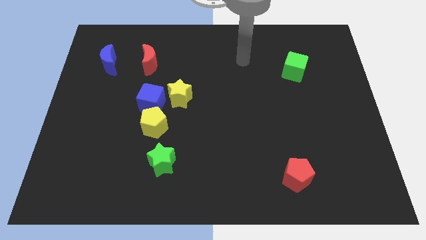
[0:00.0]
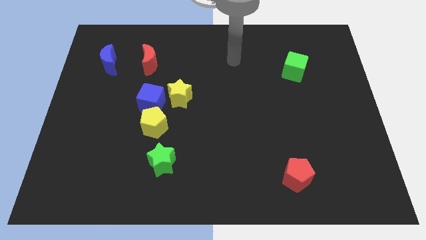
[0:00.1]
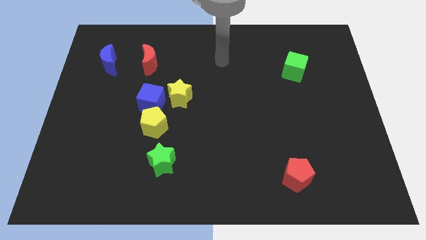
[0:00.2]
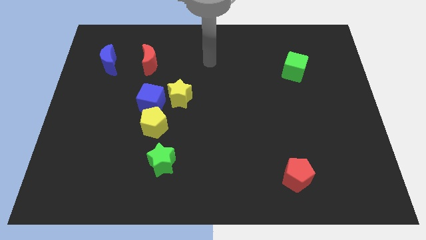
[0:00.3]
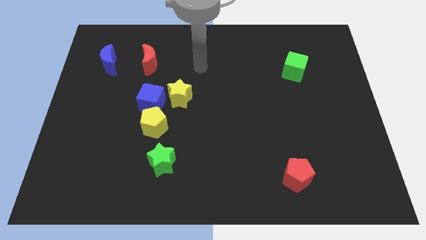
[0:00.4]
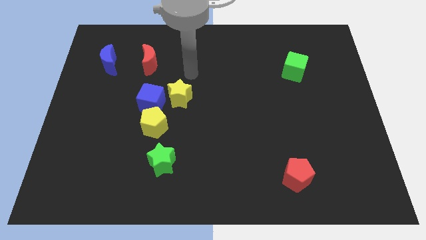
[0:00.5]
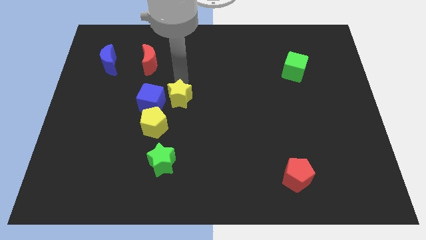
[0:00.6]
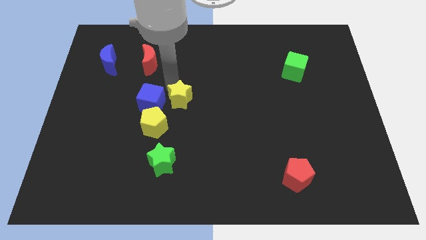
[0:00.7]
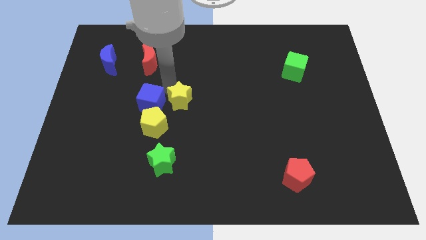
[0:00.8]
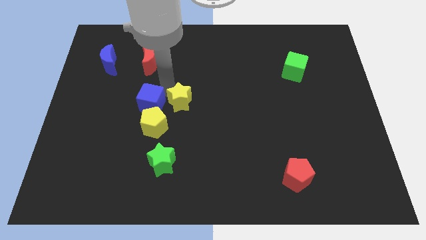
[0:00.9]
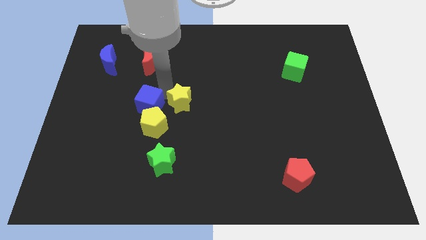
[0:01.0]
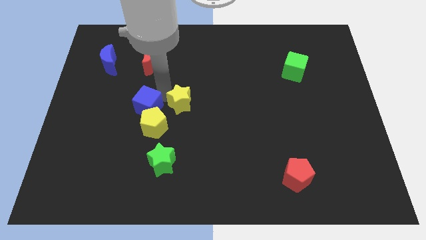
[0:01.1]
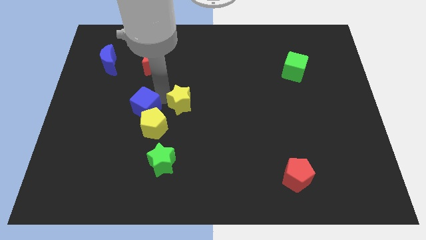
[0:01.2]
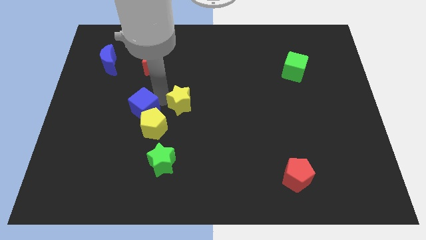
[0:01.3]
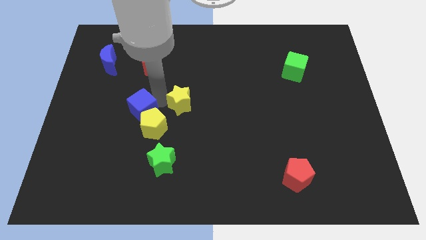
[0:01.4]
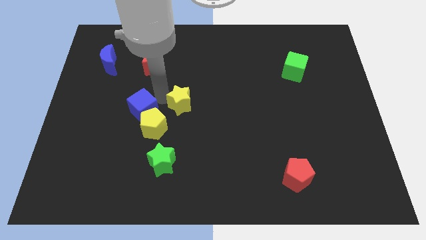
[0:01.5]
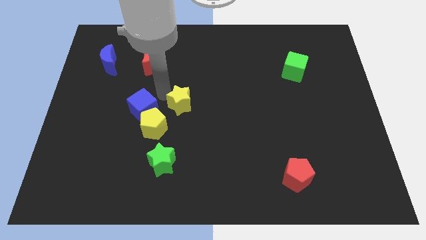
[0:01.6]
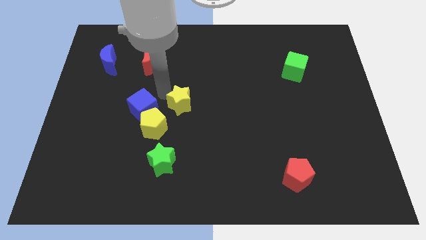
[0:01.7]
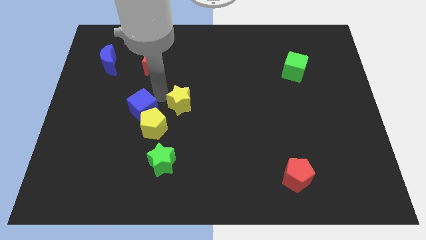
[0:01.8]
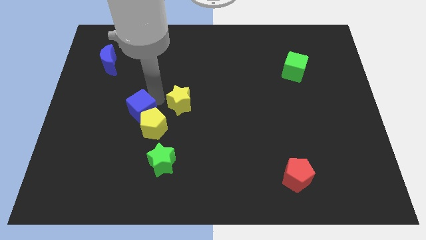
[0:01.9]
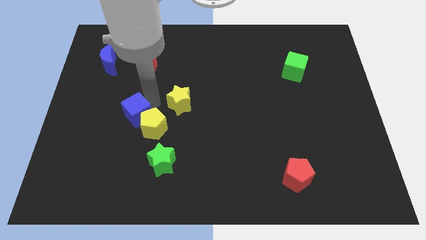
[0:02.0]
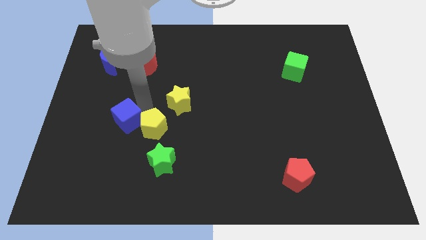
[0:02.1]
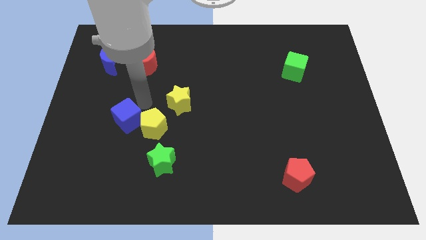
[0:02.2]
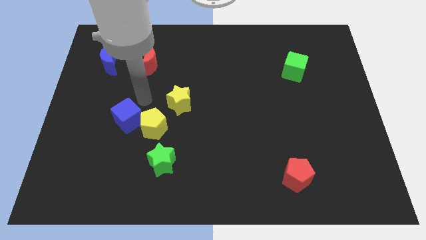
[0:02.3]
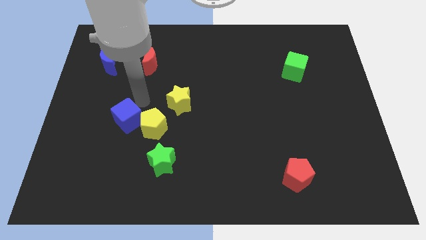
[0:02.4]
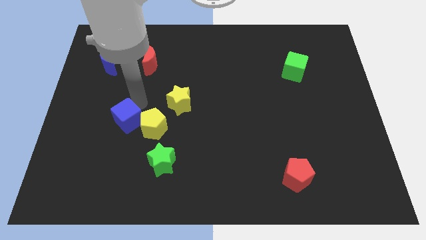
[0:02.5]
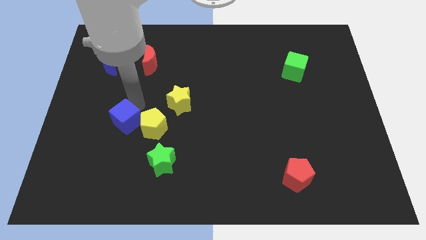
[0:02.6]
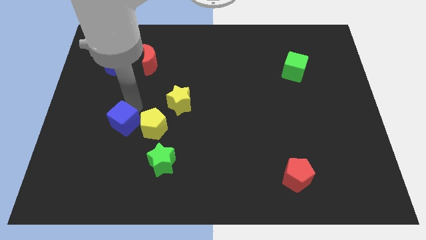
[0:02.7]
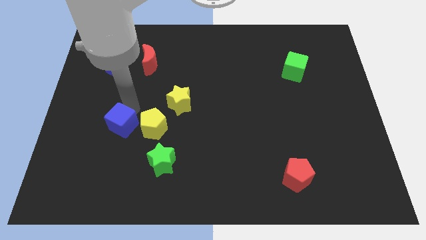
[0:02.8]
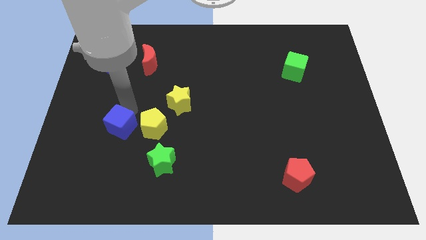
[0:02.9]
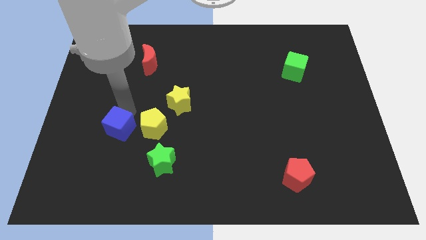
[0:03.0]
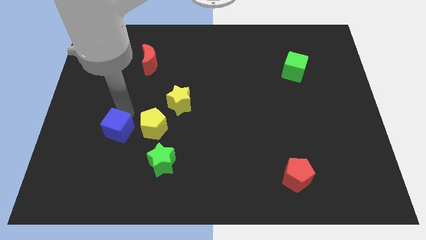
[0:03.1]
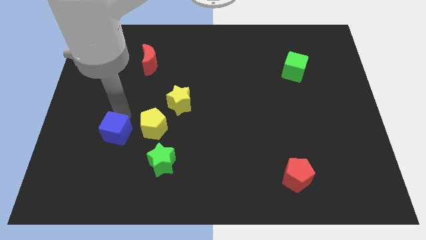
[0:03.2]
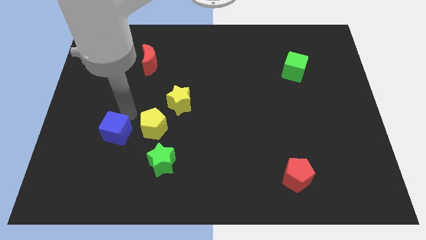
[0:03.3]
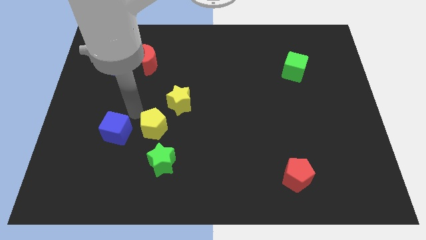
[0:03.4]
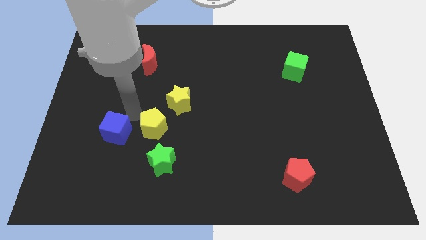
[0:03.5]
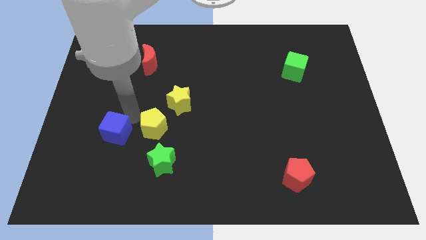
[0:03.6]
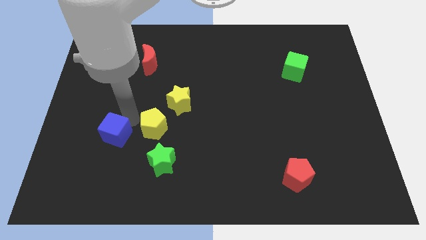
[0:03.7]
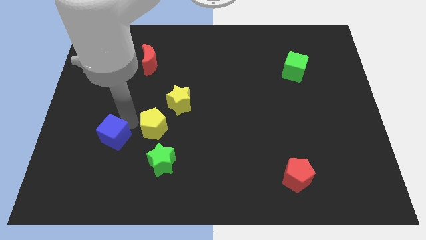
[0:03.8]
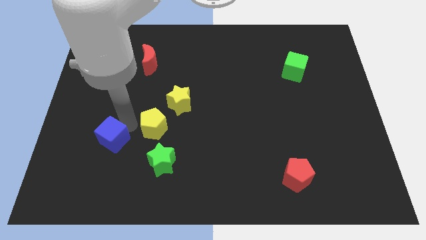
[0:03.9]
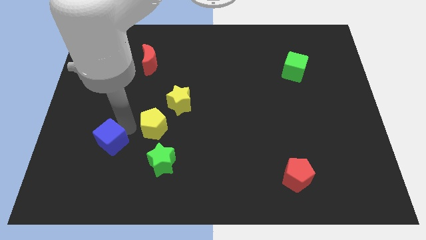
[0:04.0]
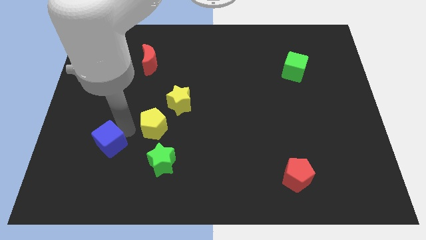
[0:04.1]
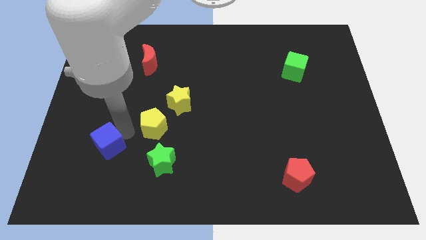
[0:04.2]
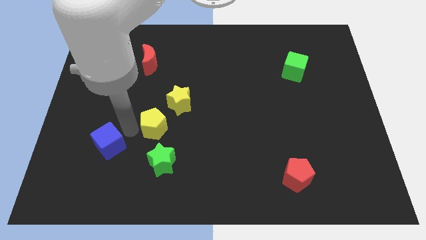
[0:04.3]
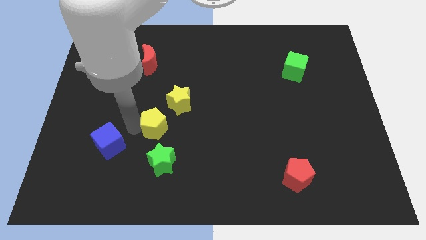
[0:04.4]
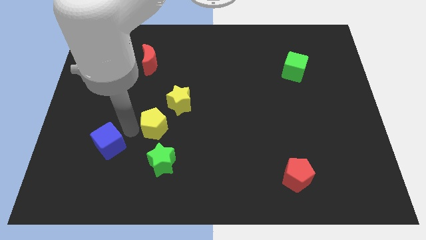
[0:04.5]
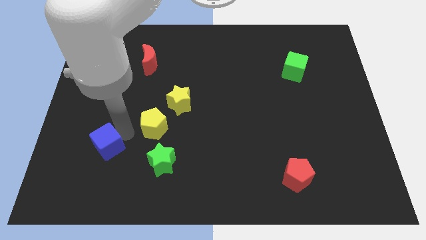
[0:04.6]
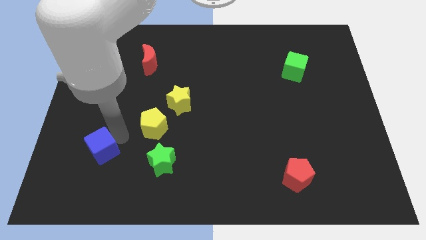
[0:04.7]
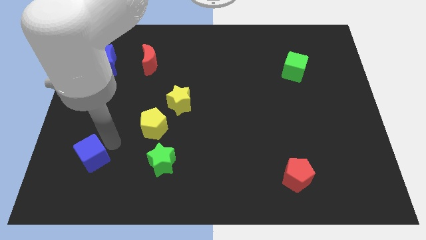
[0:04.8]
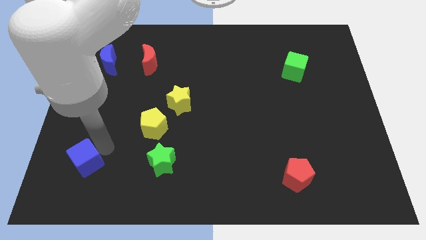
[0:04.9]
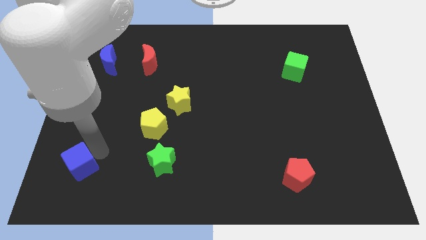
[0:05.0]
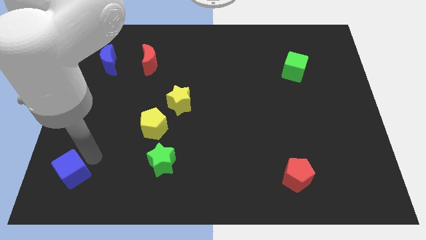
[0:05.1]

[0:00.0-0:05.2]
push the blue cube to the bottom left

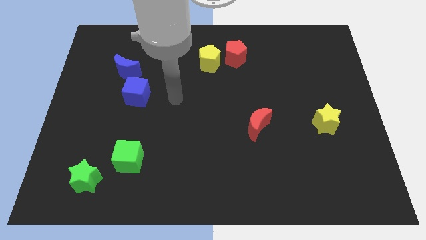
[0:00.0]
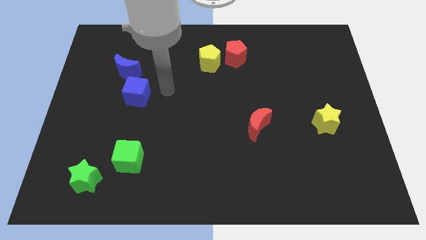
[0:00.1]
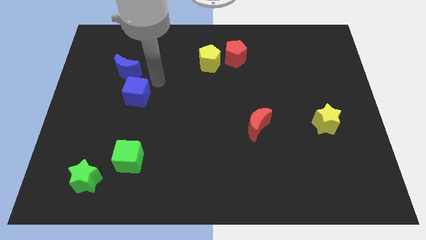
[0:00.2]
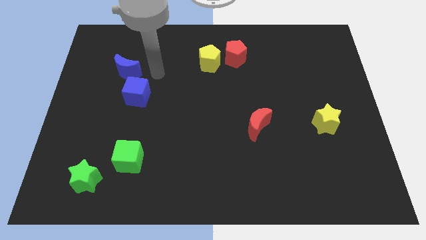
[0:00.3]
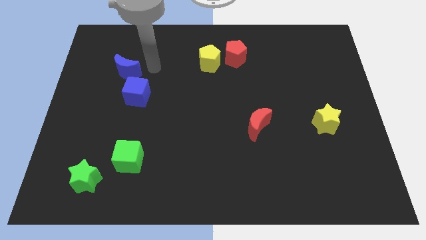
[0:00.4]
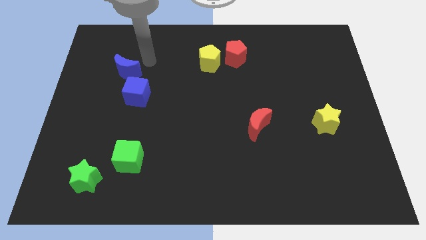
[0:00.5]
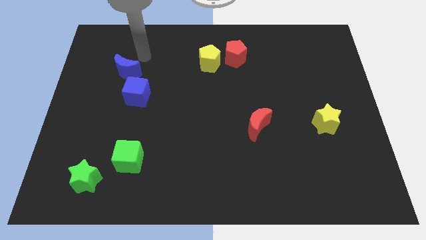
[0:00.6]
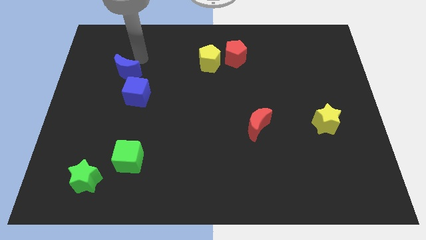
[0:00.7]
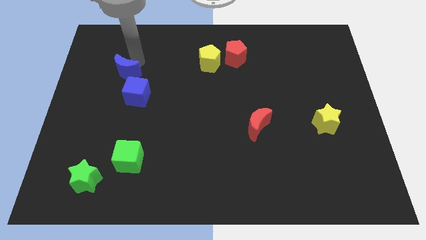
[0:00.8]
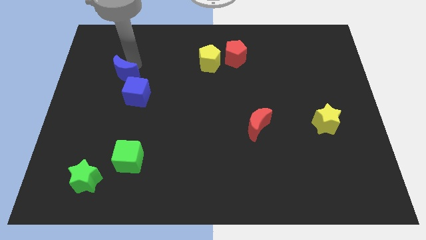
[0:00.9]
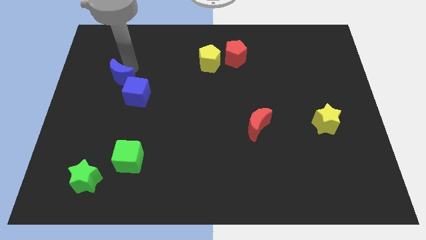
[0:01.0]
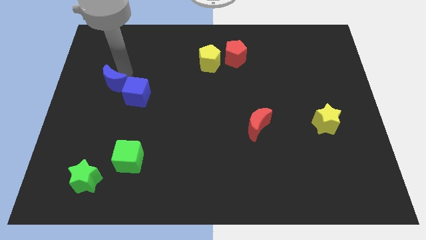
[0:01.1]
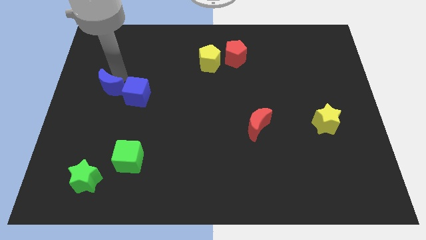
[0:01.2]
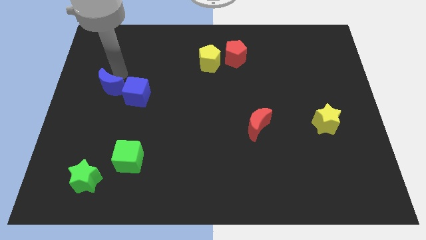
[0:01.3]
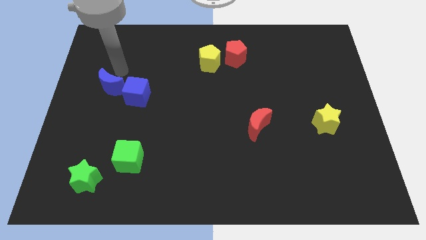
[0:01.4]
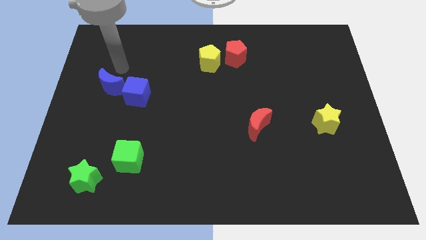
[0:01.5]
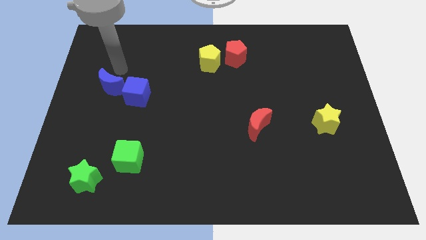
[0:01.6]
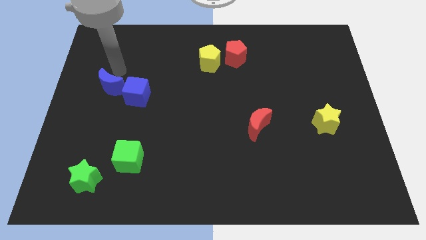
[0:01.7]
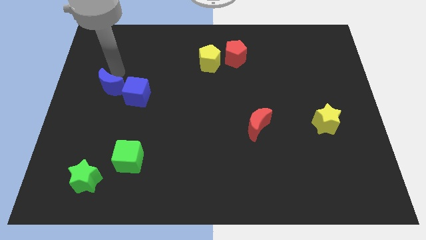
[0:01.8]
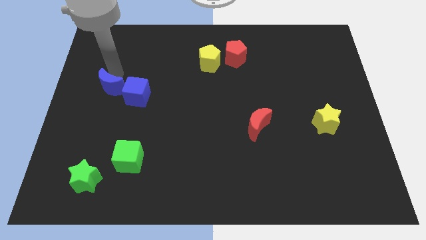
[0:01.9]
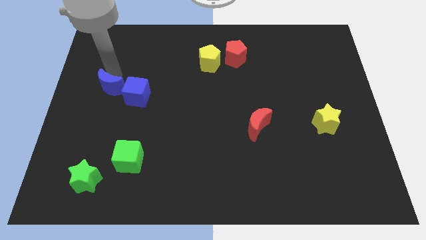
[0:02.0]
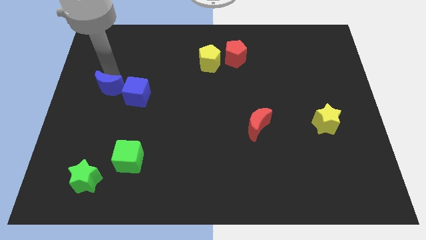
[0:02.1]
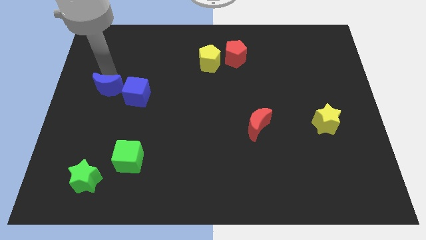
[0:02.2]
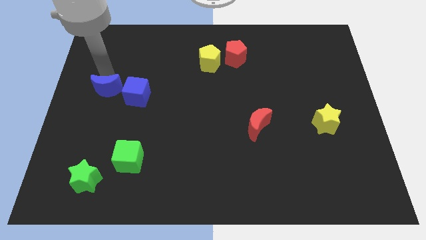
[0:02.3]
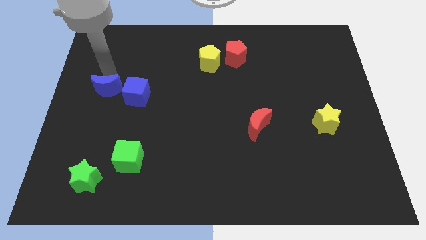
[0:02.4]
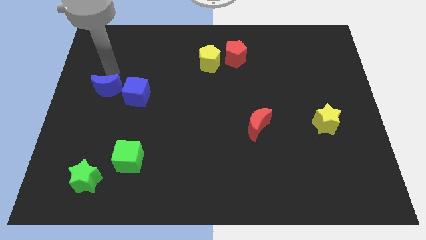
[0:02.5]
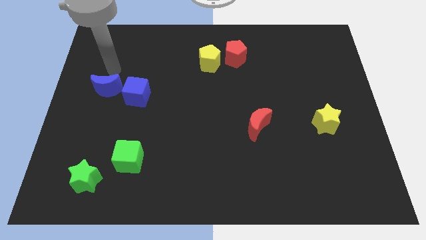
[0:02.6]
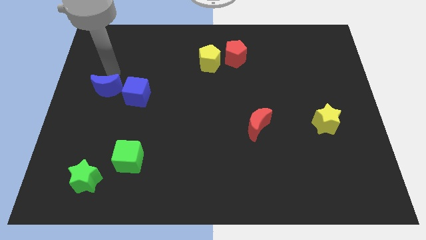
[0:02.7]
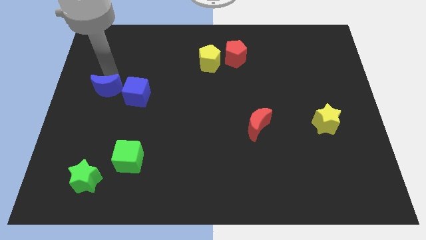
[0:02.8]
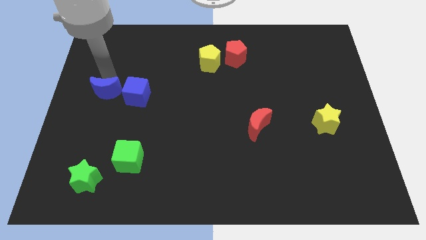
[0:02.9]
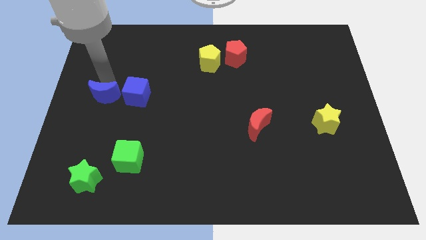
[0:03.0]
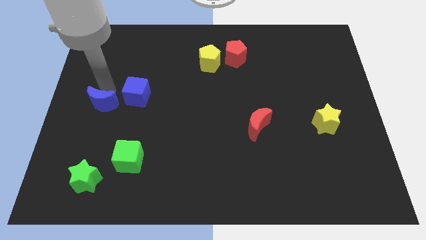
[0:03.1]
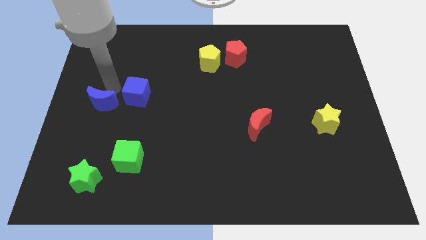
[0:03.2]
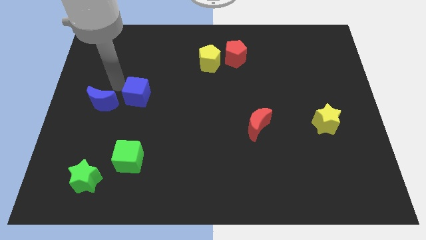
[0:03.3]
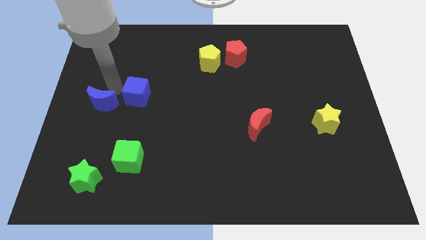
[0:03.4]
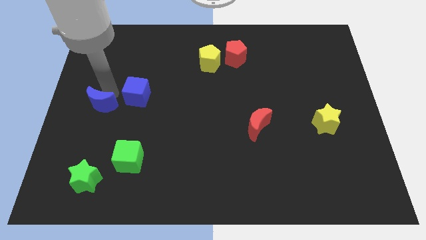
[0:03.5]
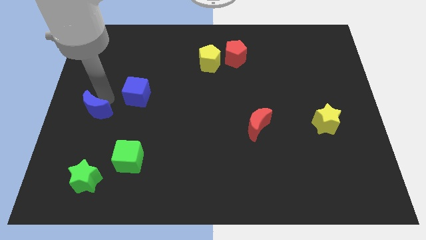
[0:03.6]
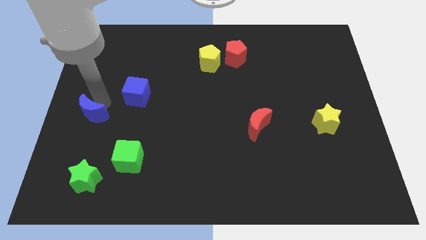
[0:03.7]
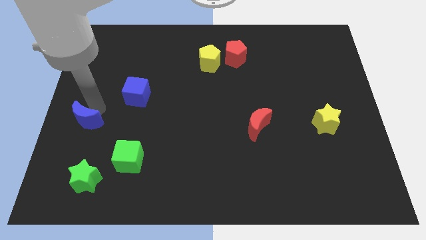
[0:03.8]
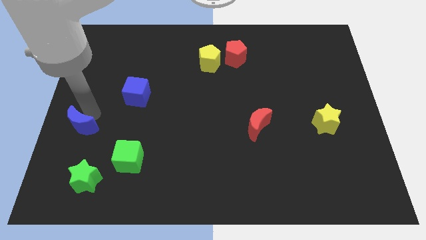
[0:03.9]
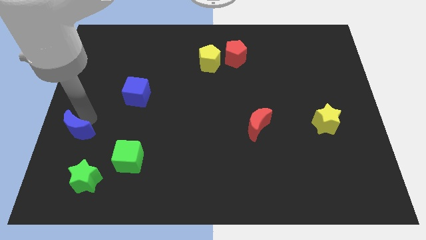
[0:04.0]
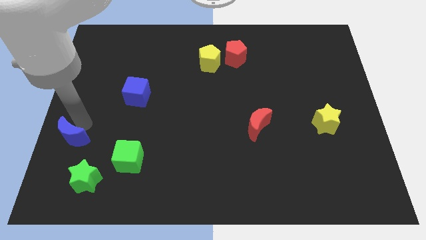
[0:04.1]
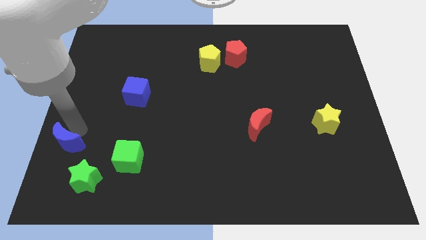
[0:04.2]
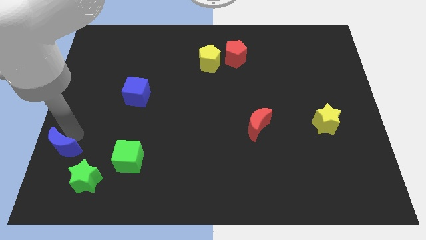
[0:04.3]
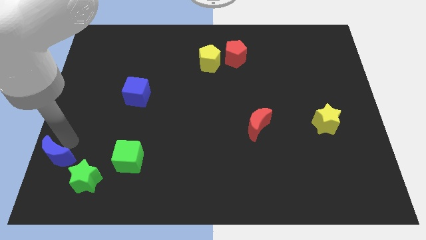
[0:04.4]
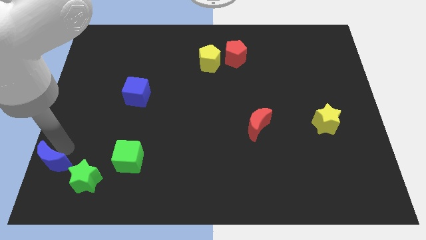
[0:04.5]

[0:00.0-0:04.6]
push the blue moon to the bottom left
